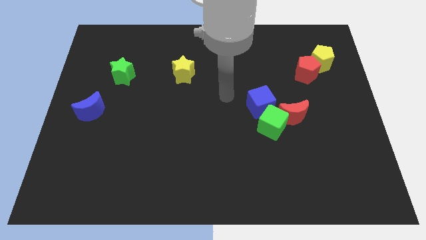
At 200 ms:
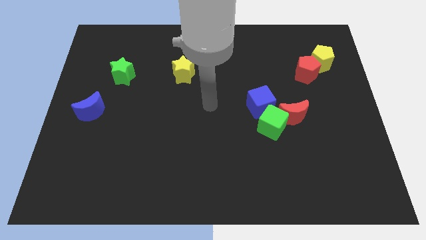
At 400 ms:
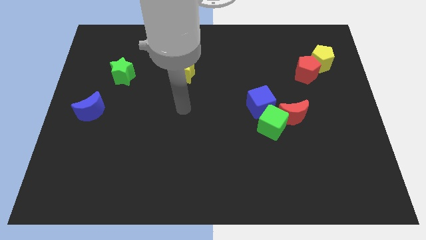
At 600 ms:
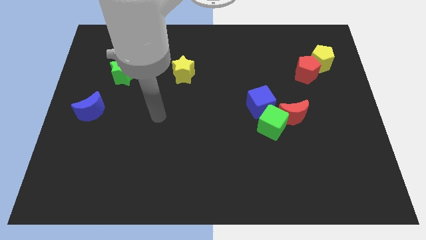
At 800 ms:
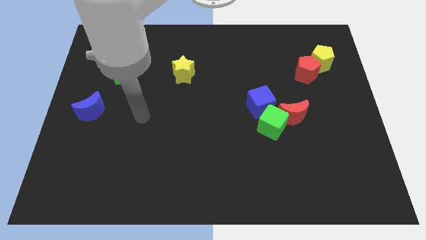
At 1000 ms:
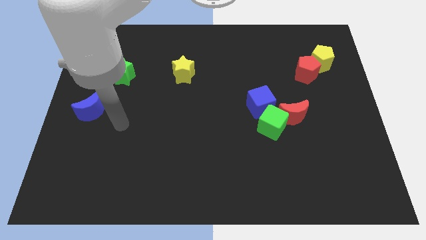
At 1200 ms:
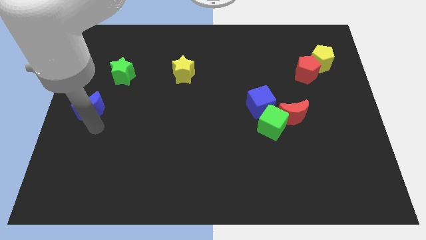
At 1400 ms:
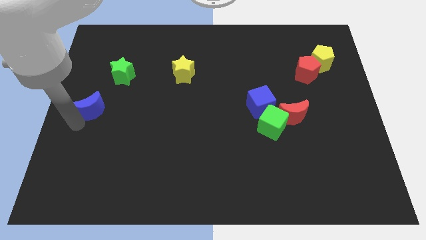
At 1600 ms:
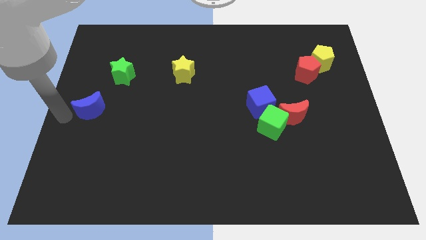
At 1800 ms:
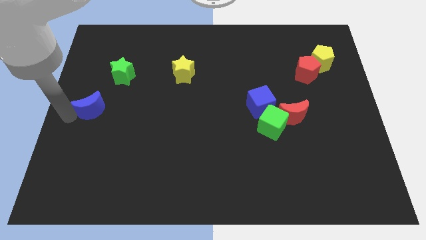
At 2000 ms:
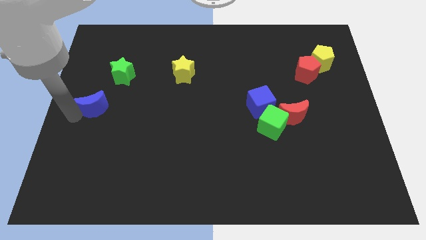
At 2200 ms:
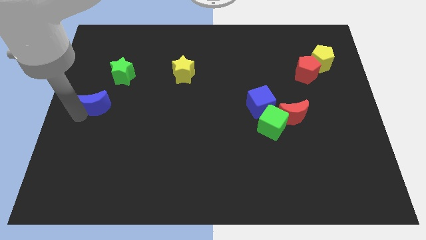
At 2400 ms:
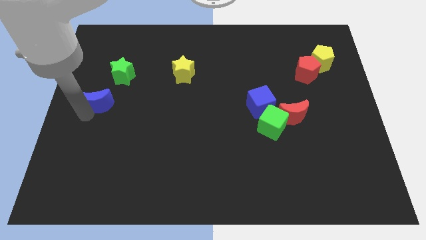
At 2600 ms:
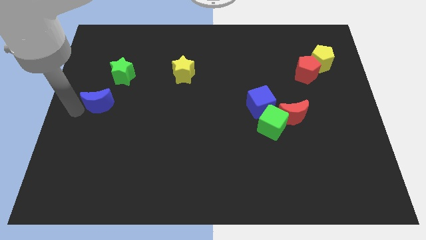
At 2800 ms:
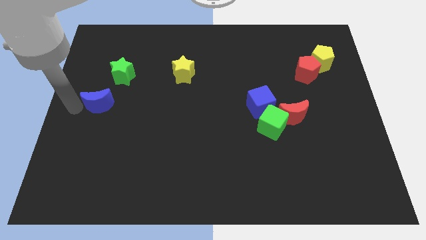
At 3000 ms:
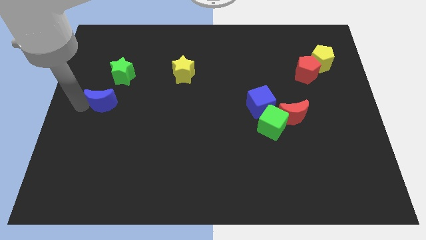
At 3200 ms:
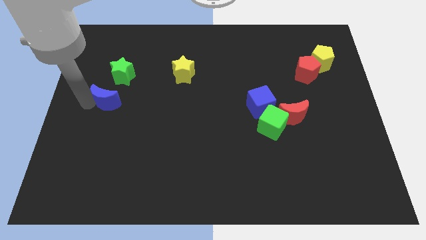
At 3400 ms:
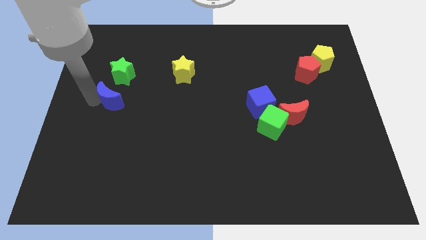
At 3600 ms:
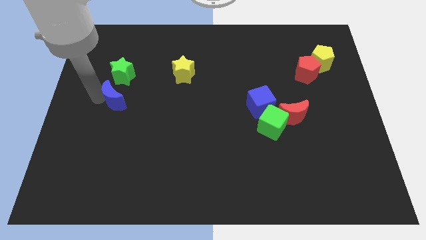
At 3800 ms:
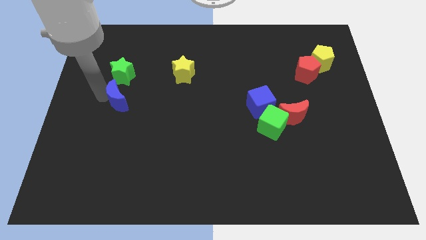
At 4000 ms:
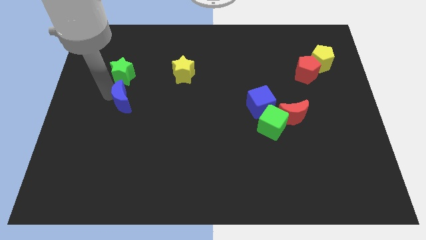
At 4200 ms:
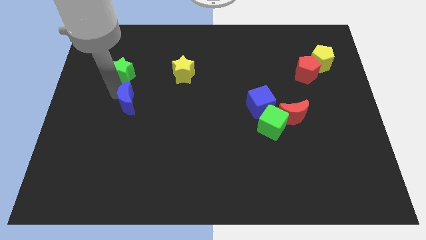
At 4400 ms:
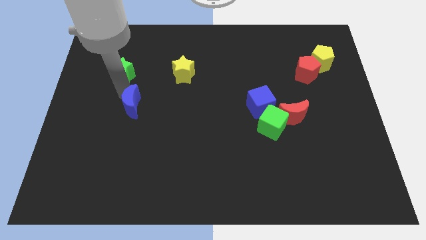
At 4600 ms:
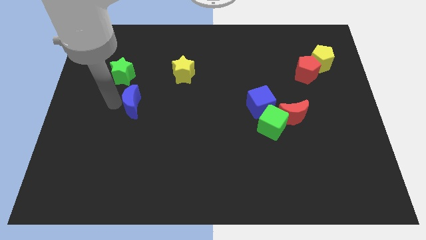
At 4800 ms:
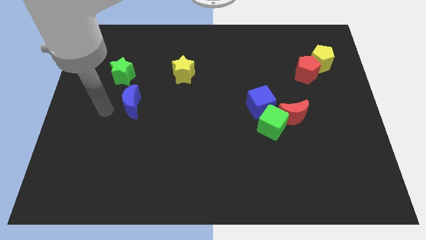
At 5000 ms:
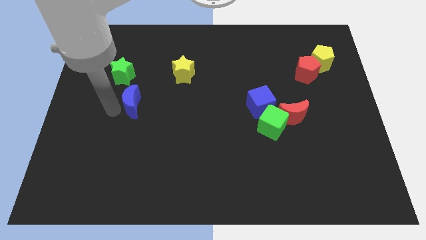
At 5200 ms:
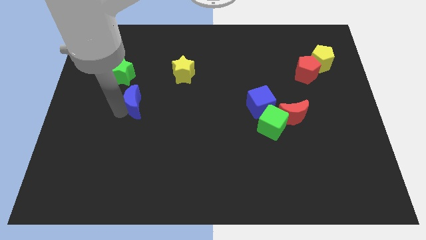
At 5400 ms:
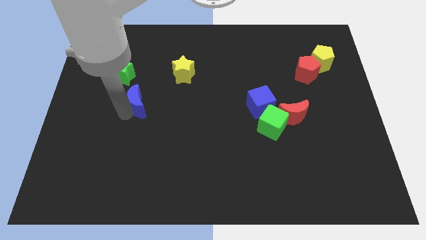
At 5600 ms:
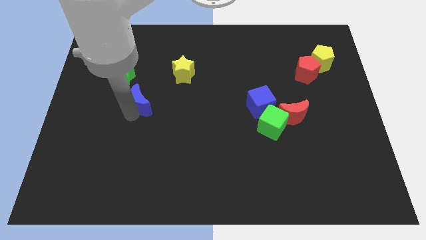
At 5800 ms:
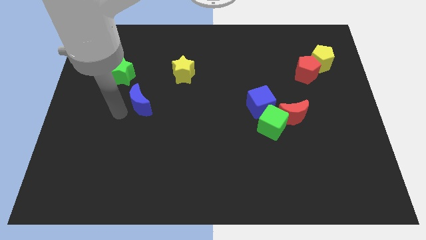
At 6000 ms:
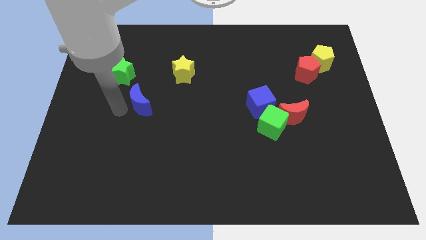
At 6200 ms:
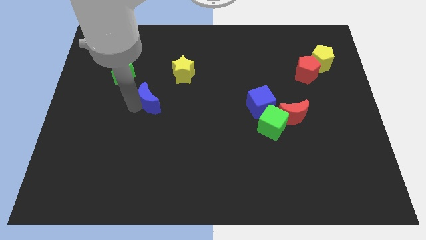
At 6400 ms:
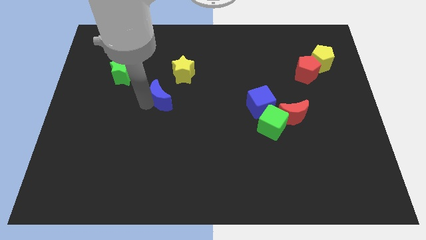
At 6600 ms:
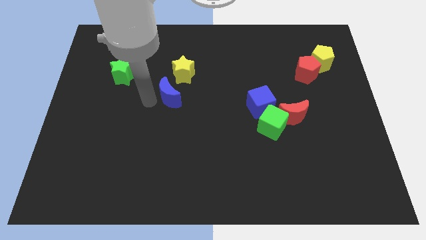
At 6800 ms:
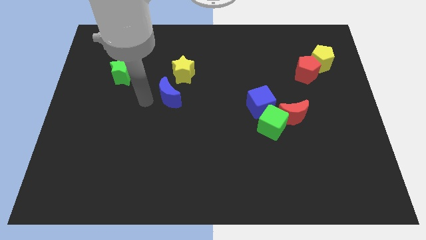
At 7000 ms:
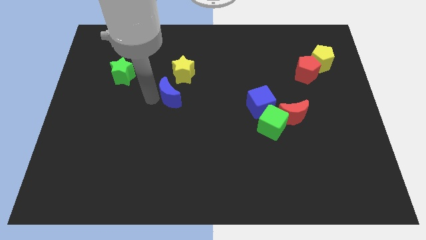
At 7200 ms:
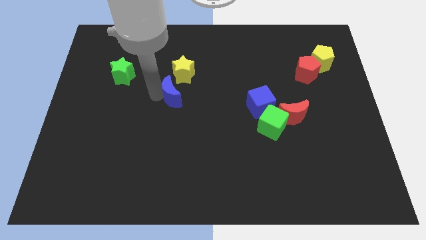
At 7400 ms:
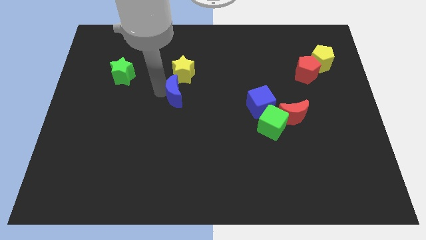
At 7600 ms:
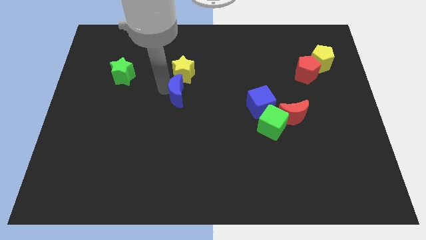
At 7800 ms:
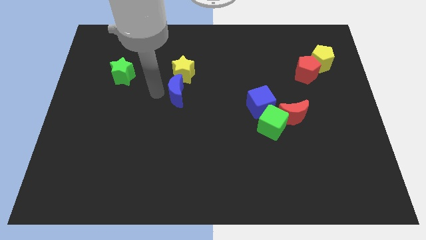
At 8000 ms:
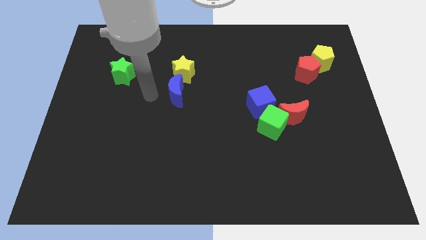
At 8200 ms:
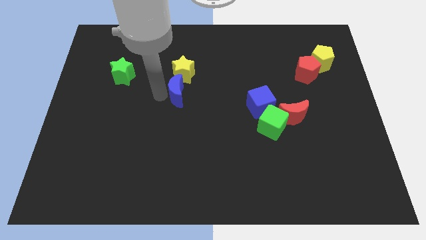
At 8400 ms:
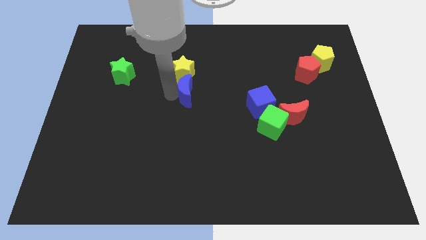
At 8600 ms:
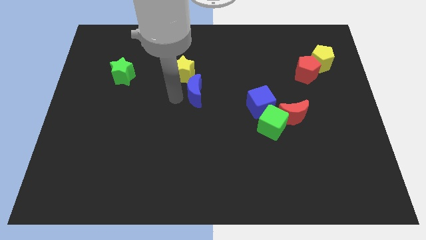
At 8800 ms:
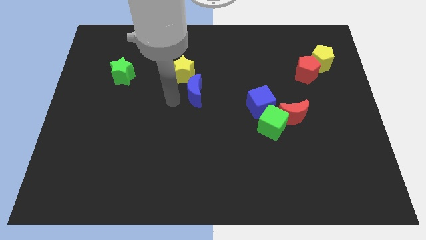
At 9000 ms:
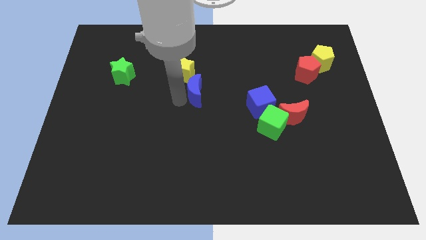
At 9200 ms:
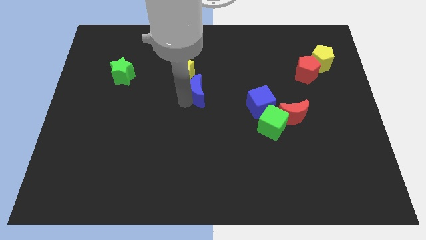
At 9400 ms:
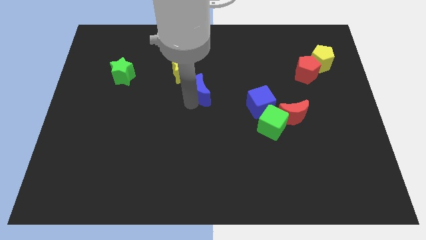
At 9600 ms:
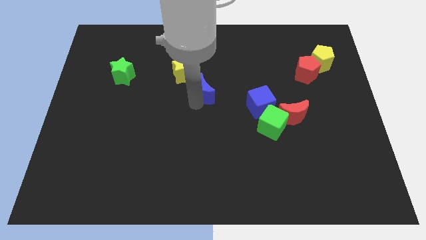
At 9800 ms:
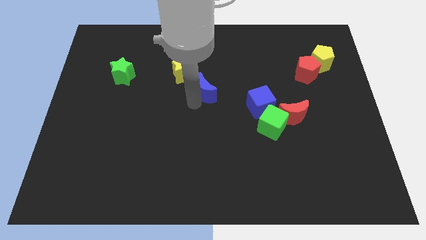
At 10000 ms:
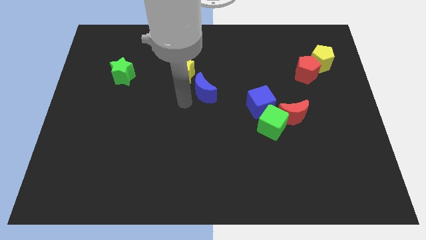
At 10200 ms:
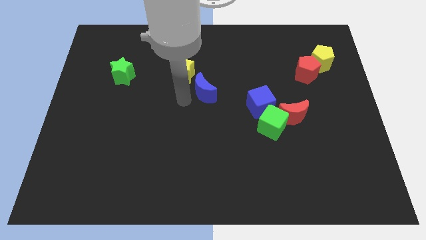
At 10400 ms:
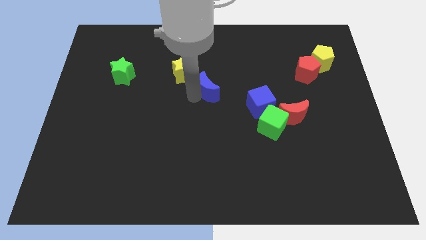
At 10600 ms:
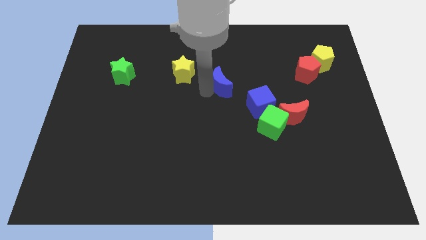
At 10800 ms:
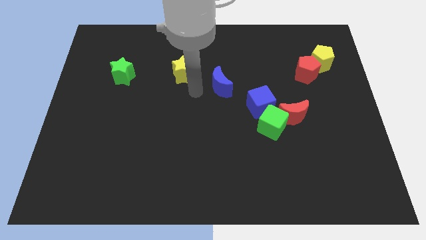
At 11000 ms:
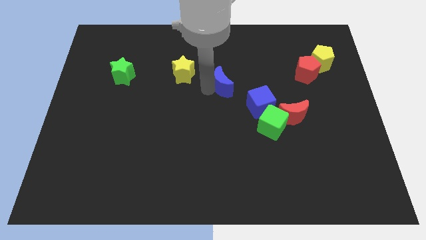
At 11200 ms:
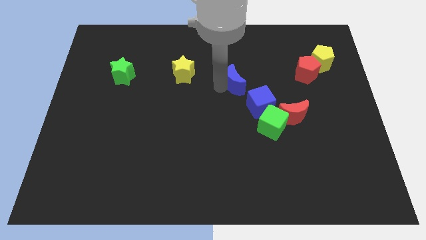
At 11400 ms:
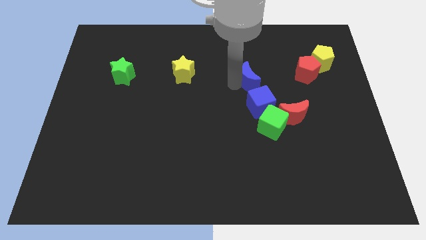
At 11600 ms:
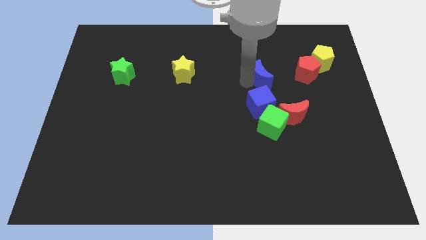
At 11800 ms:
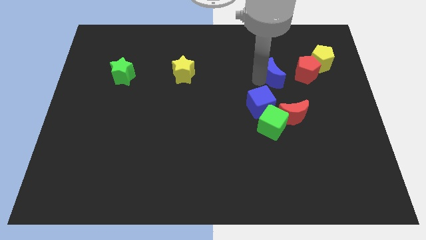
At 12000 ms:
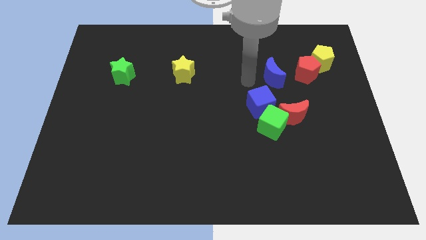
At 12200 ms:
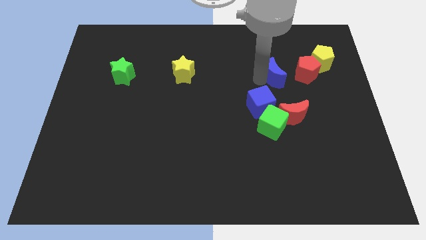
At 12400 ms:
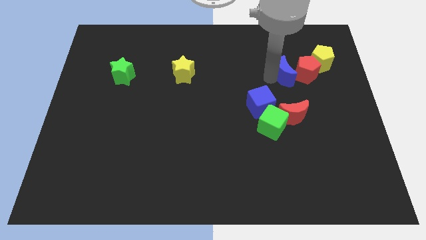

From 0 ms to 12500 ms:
move the blue moon close to the red pentagon

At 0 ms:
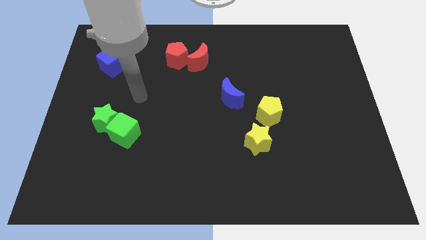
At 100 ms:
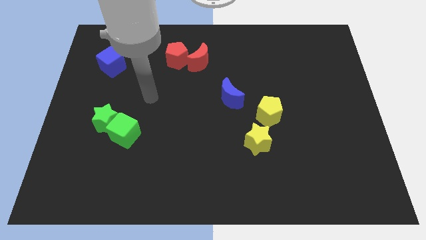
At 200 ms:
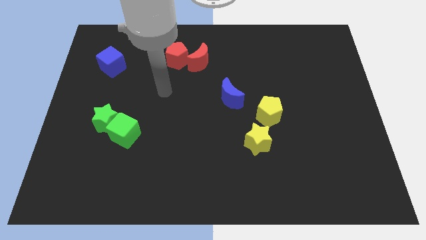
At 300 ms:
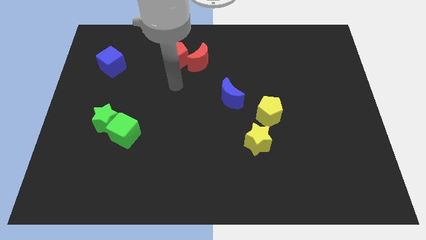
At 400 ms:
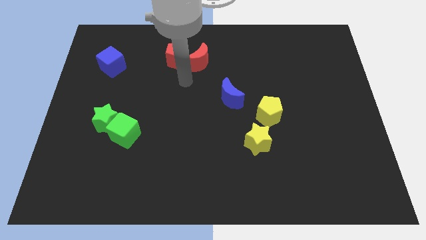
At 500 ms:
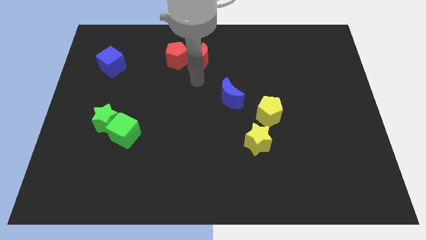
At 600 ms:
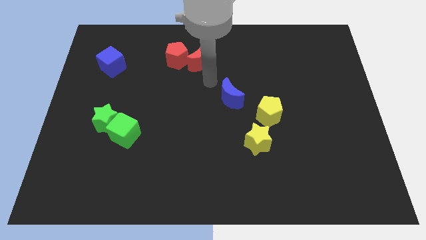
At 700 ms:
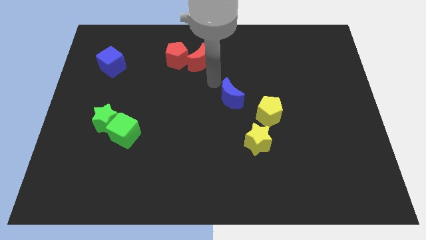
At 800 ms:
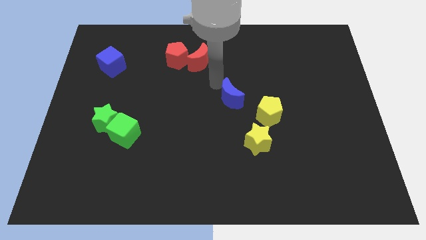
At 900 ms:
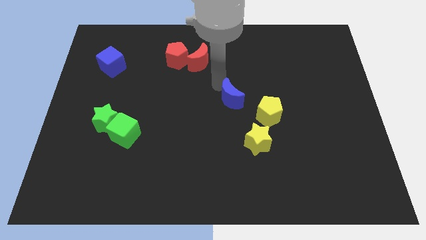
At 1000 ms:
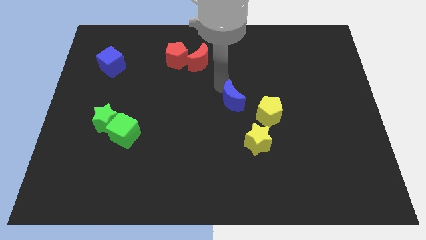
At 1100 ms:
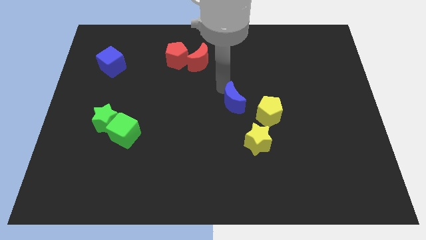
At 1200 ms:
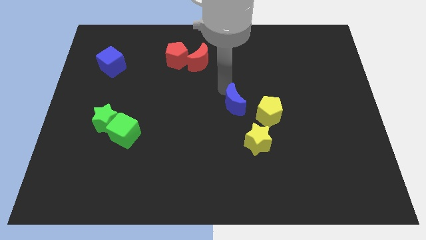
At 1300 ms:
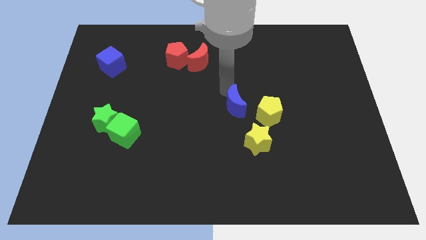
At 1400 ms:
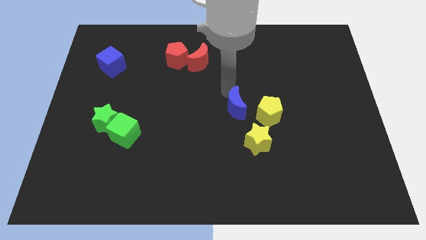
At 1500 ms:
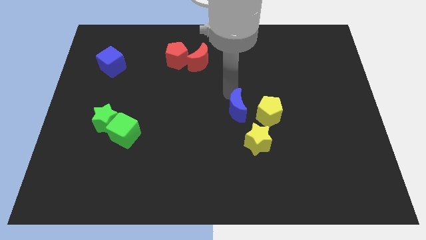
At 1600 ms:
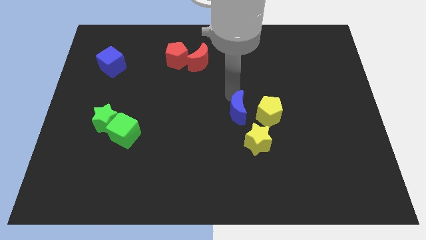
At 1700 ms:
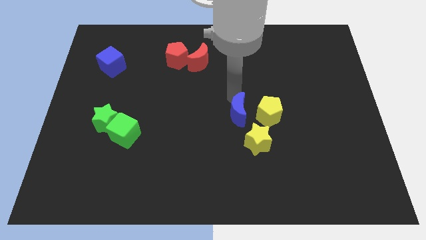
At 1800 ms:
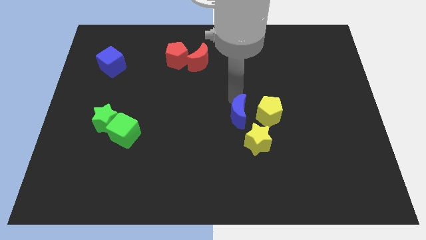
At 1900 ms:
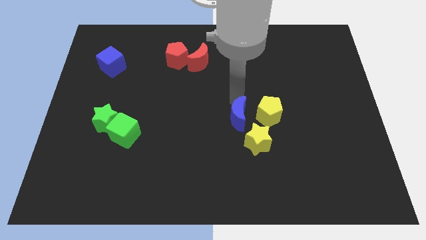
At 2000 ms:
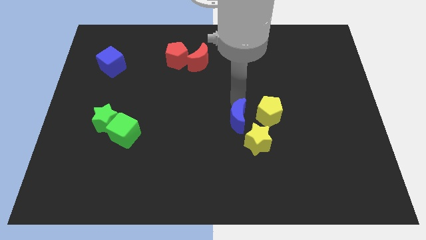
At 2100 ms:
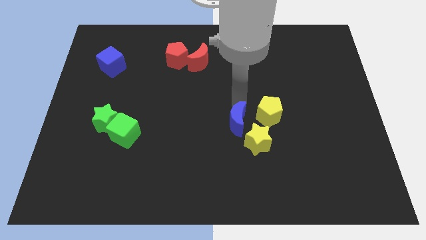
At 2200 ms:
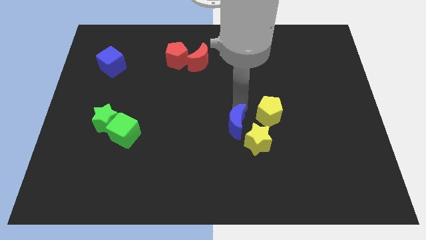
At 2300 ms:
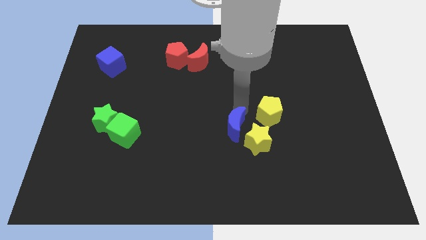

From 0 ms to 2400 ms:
move the blue moon towards the yellow star
